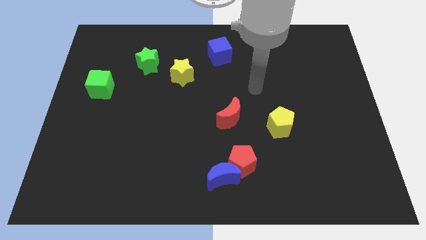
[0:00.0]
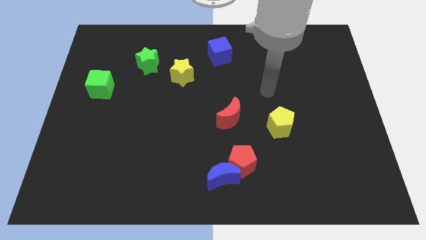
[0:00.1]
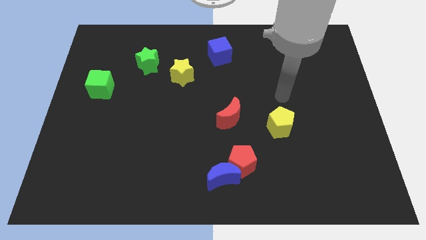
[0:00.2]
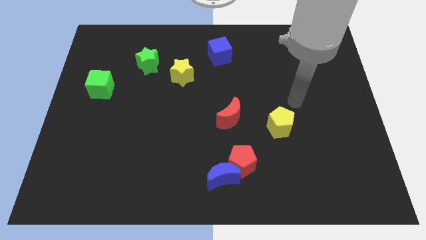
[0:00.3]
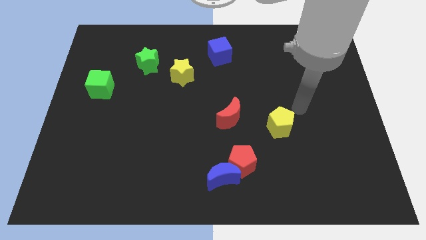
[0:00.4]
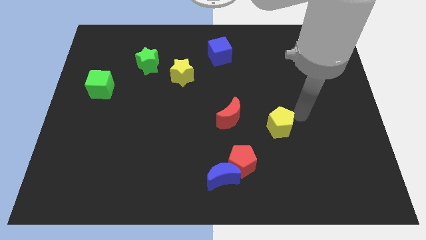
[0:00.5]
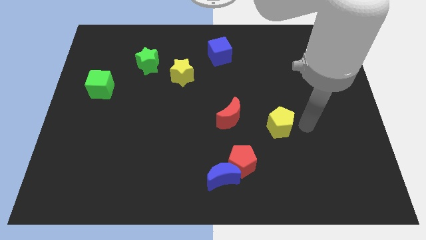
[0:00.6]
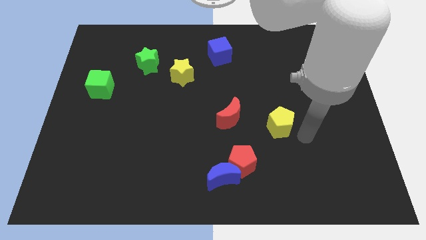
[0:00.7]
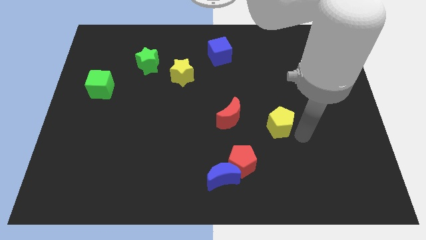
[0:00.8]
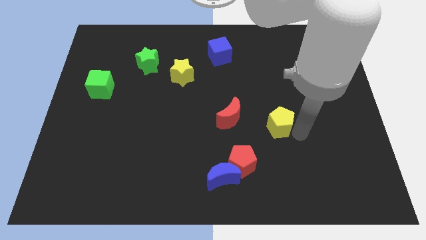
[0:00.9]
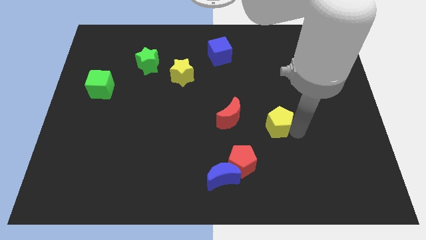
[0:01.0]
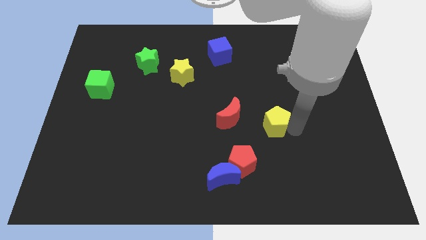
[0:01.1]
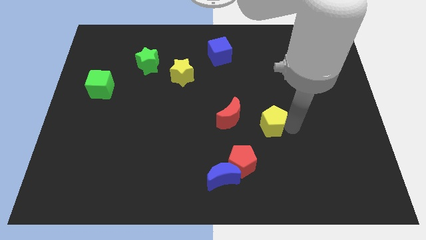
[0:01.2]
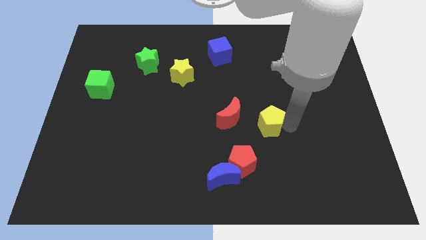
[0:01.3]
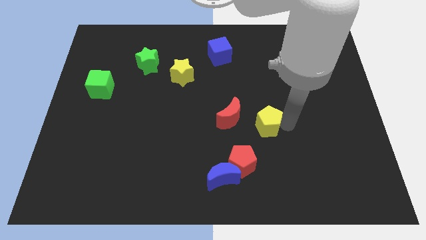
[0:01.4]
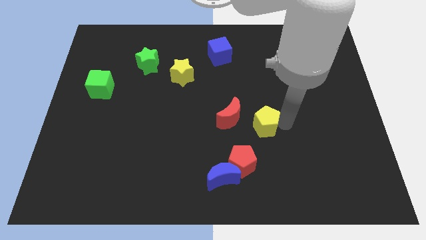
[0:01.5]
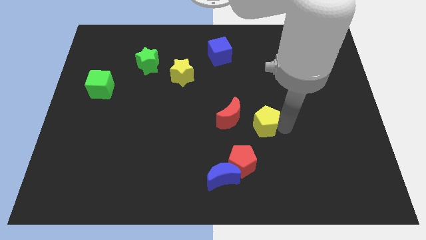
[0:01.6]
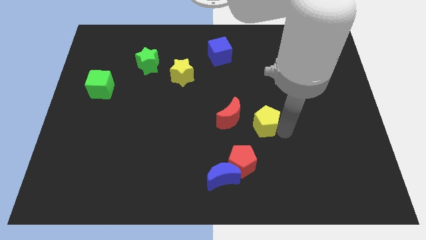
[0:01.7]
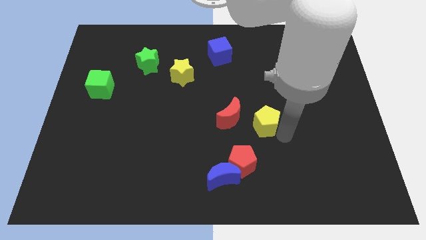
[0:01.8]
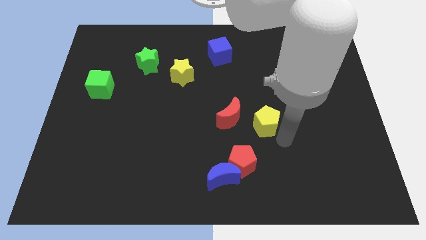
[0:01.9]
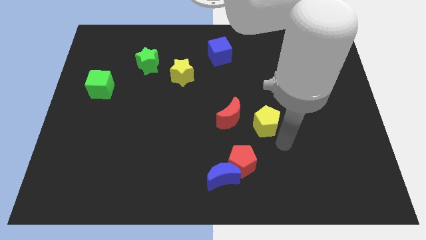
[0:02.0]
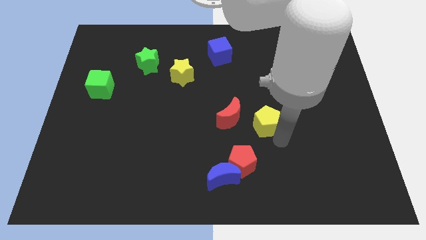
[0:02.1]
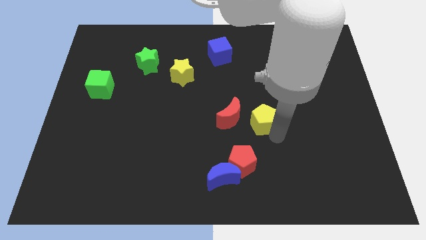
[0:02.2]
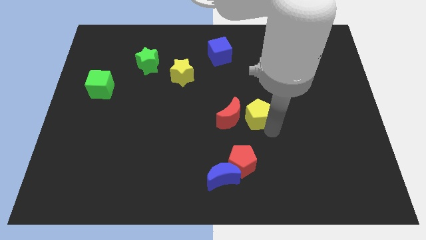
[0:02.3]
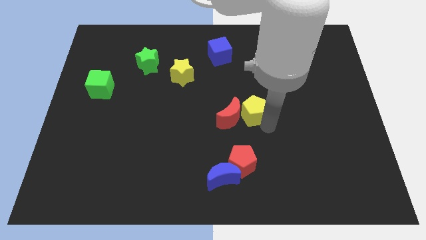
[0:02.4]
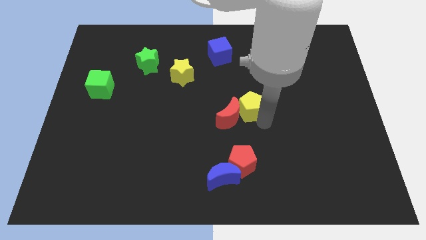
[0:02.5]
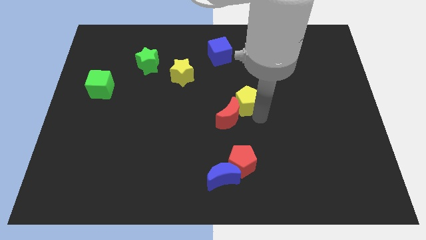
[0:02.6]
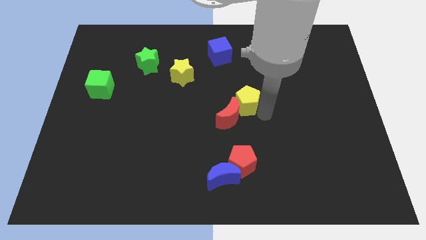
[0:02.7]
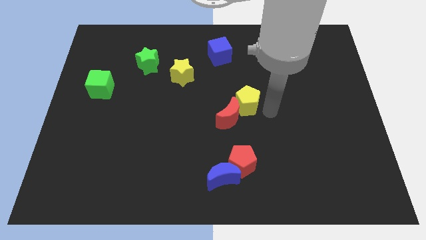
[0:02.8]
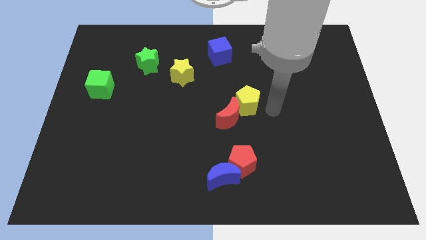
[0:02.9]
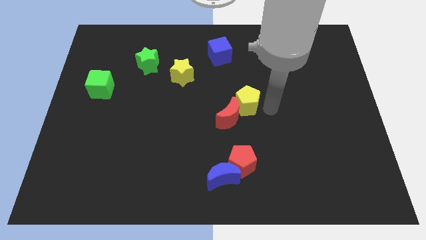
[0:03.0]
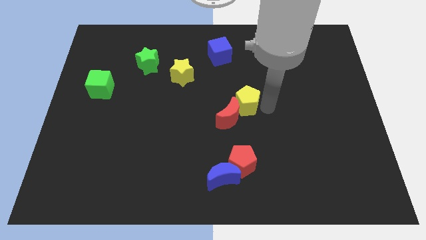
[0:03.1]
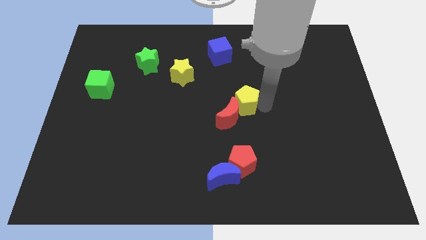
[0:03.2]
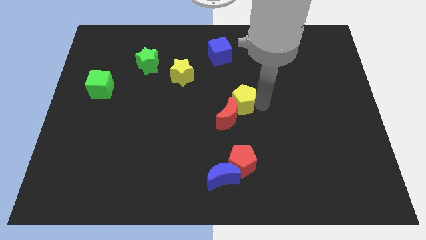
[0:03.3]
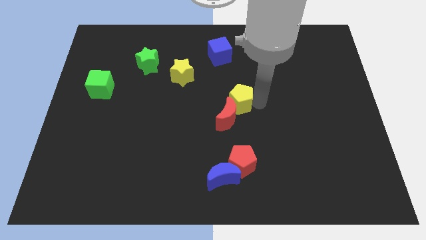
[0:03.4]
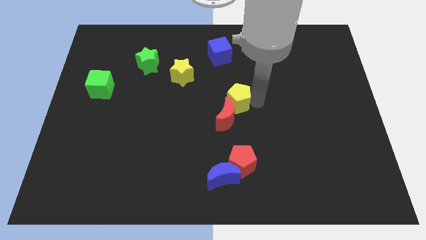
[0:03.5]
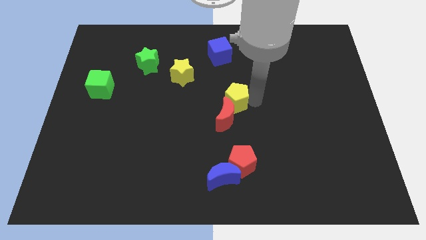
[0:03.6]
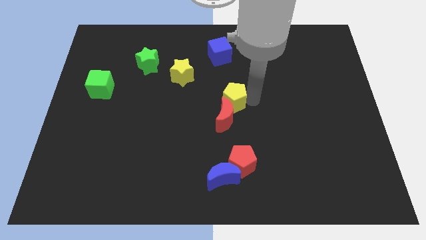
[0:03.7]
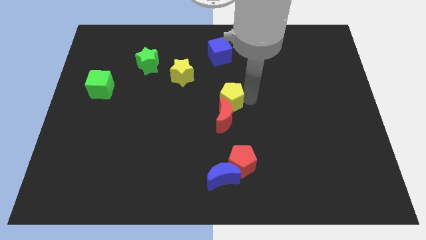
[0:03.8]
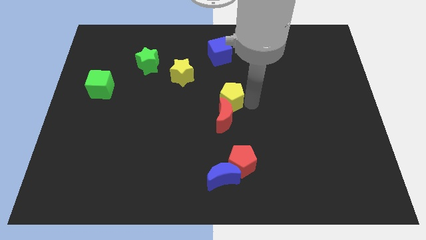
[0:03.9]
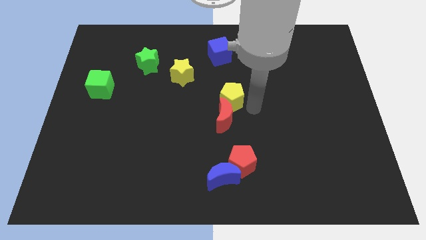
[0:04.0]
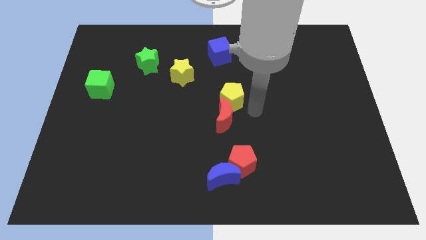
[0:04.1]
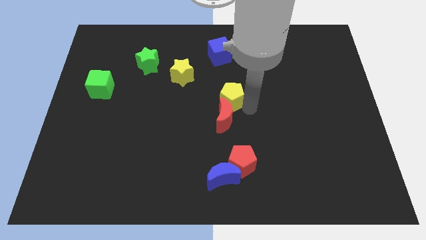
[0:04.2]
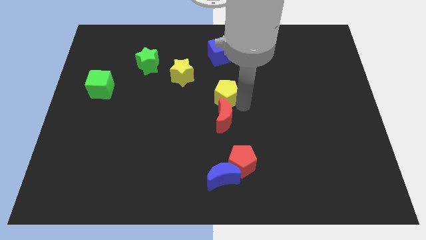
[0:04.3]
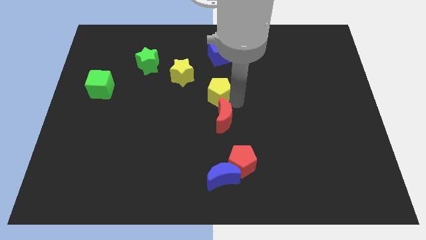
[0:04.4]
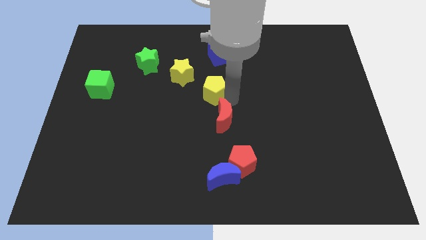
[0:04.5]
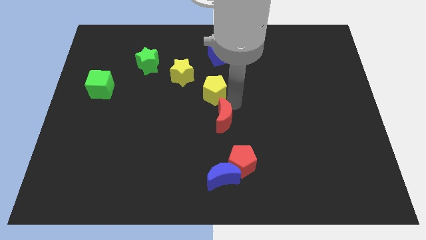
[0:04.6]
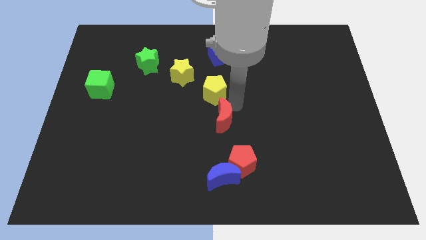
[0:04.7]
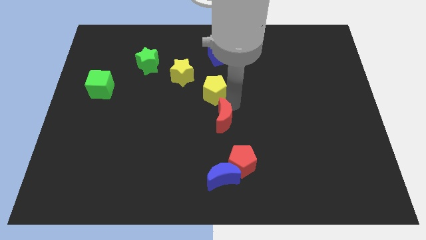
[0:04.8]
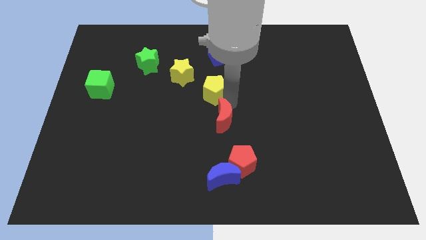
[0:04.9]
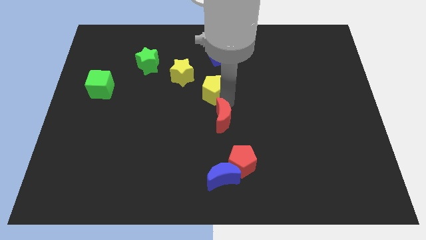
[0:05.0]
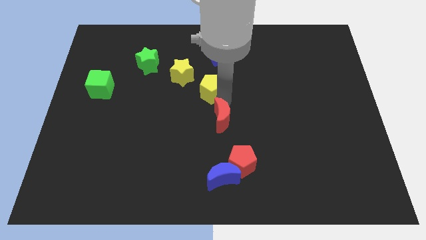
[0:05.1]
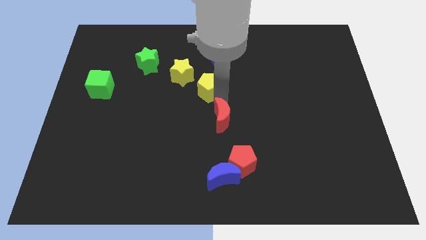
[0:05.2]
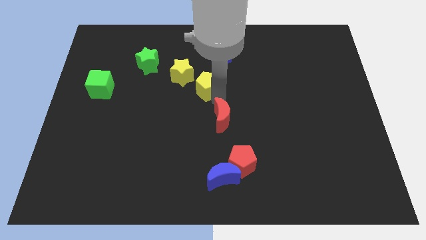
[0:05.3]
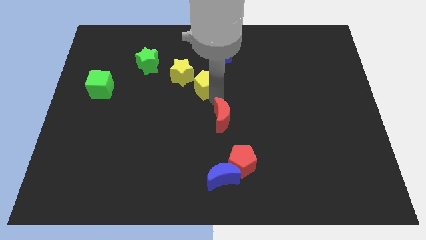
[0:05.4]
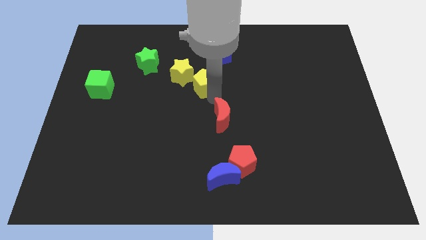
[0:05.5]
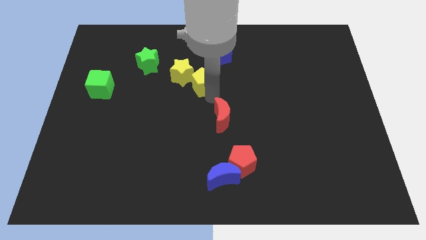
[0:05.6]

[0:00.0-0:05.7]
slide the yellow pentagon next to the yellow star

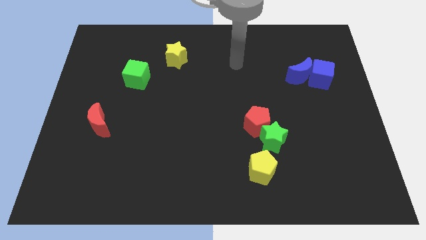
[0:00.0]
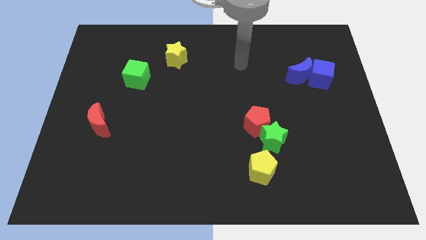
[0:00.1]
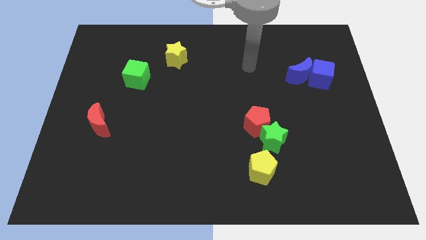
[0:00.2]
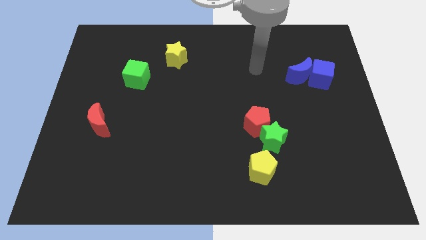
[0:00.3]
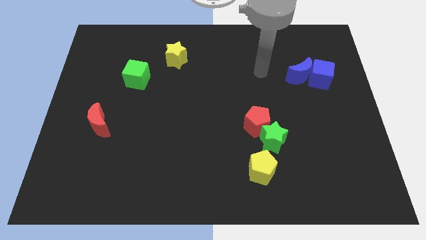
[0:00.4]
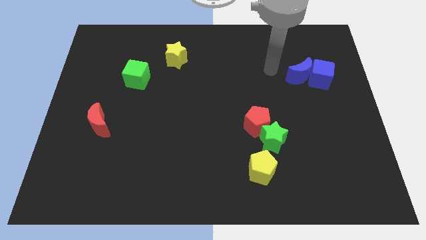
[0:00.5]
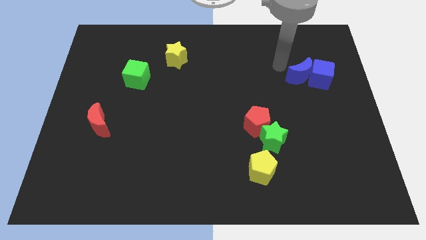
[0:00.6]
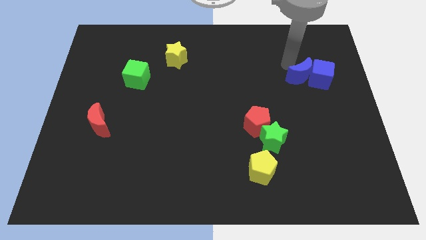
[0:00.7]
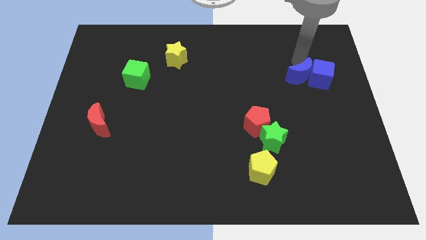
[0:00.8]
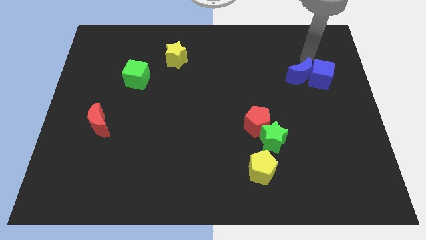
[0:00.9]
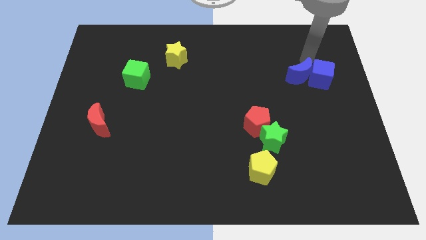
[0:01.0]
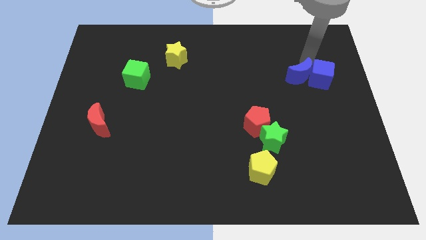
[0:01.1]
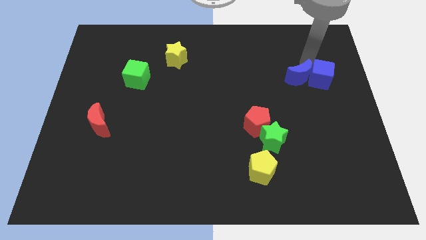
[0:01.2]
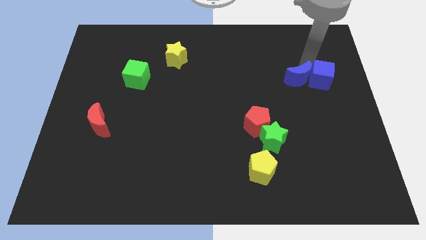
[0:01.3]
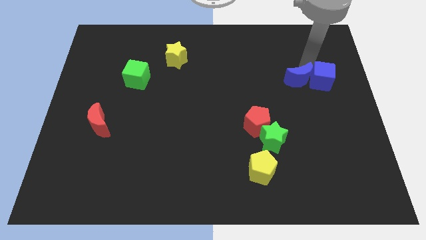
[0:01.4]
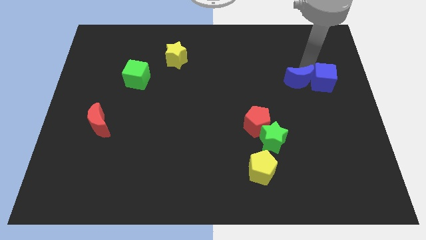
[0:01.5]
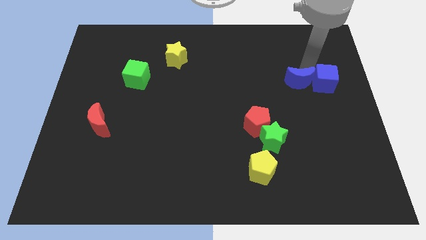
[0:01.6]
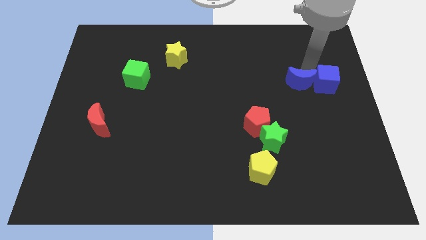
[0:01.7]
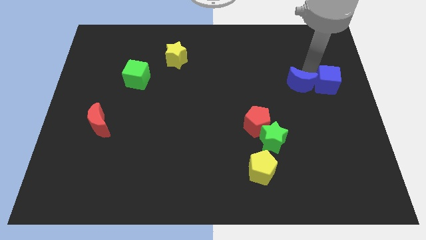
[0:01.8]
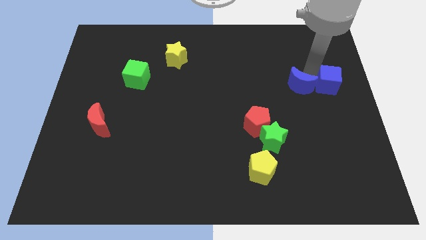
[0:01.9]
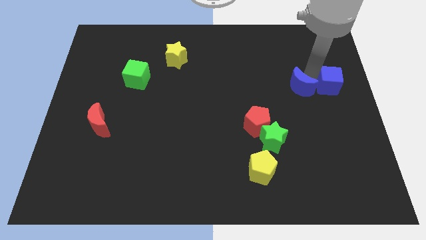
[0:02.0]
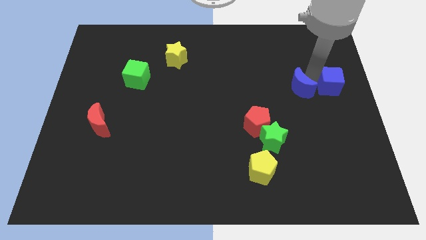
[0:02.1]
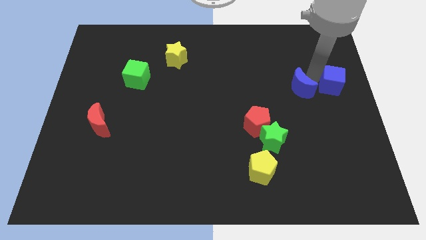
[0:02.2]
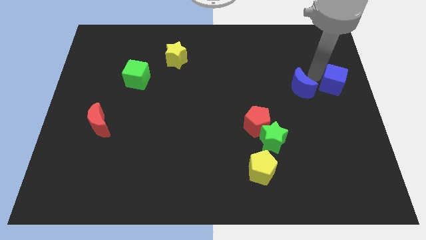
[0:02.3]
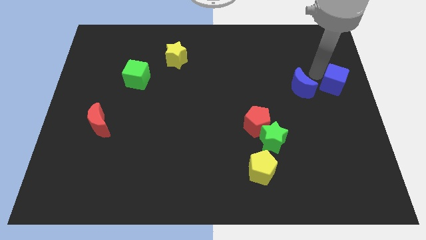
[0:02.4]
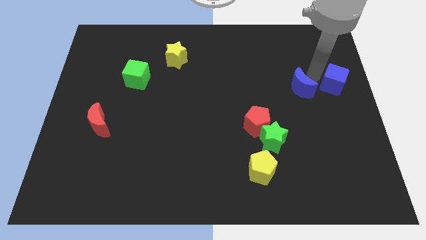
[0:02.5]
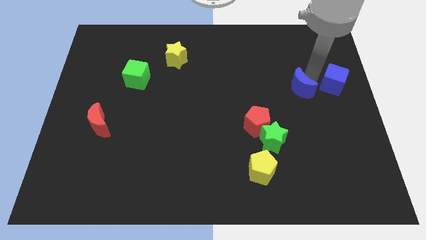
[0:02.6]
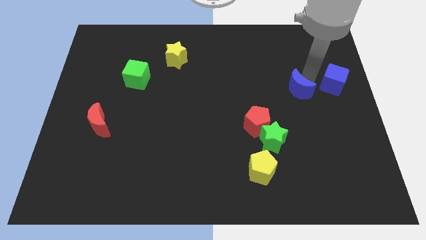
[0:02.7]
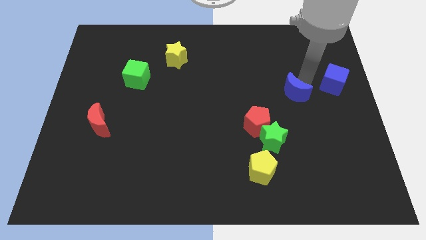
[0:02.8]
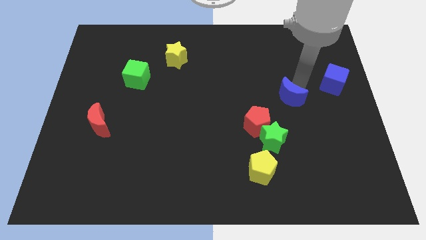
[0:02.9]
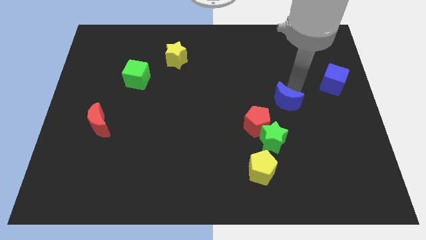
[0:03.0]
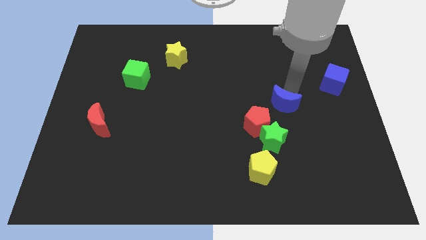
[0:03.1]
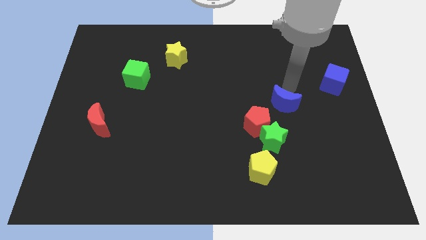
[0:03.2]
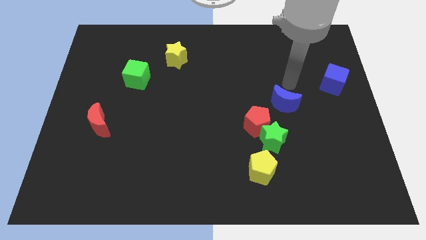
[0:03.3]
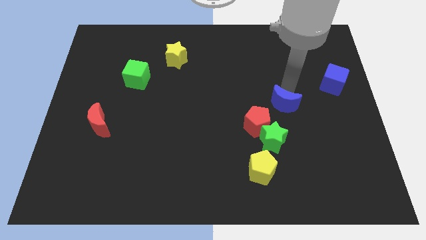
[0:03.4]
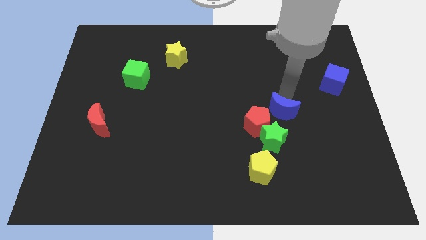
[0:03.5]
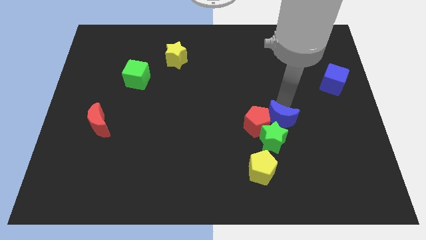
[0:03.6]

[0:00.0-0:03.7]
put the blue moon close to the green star
